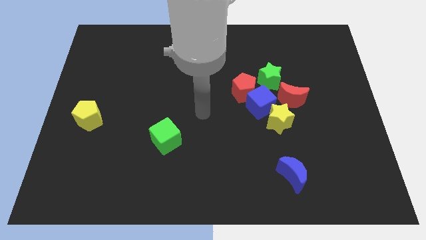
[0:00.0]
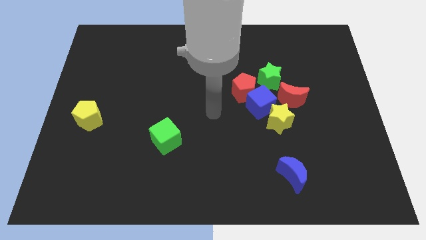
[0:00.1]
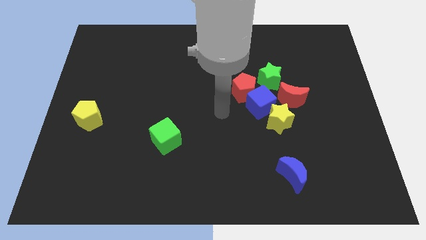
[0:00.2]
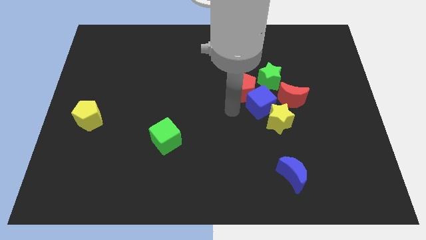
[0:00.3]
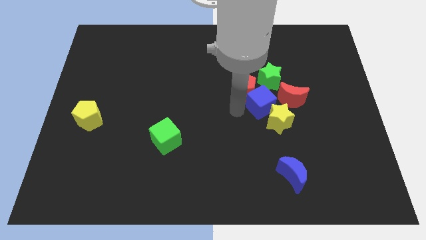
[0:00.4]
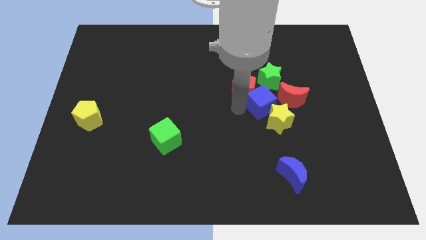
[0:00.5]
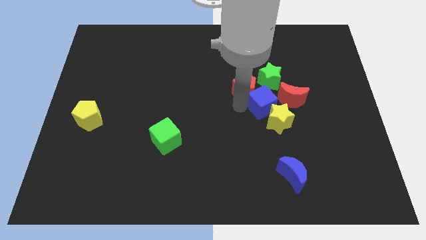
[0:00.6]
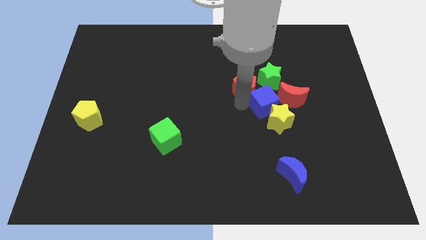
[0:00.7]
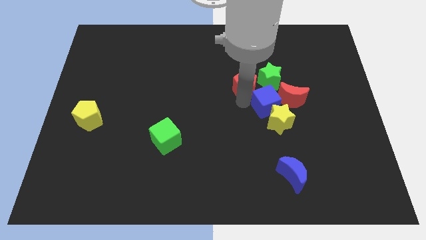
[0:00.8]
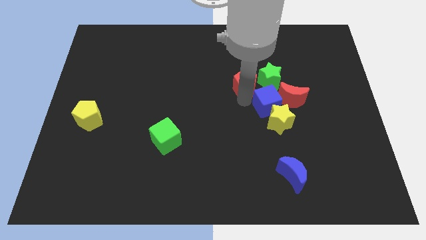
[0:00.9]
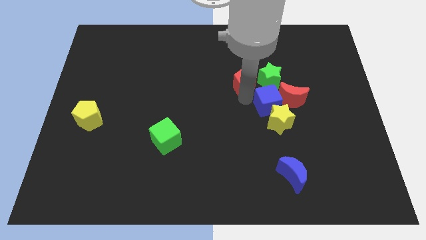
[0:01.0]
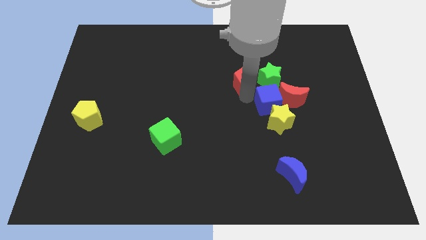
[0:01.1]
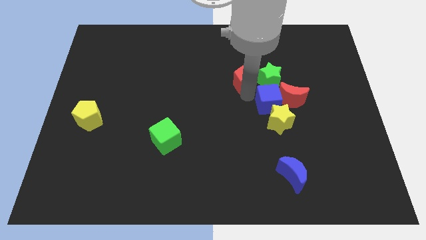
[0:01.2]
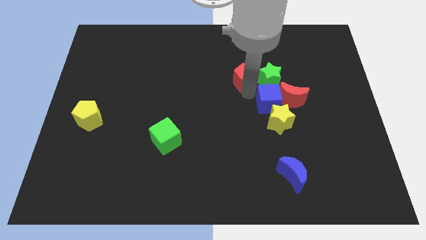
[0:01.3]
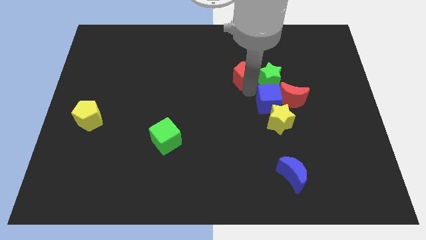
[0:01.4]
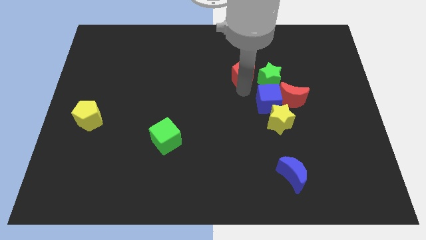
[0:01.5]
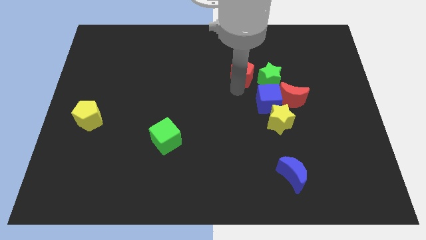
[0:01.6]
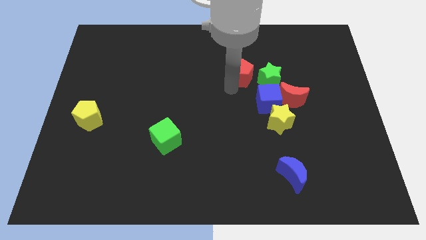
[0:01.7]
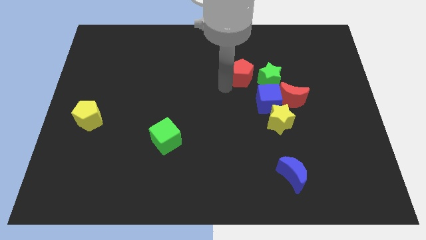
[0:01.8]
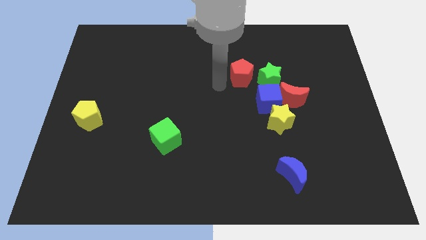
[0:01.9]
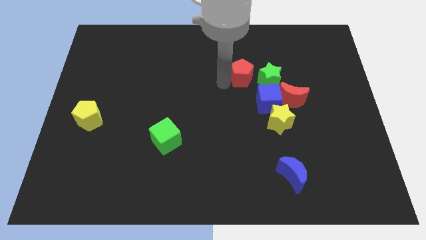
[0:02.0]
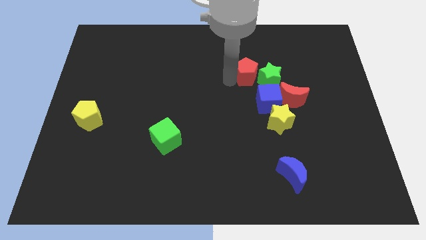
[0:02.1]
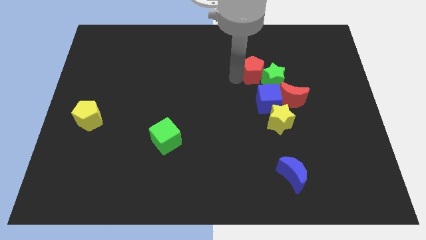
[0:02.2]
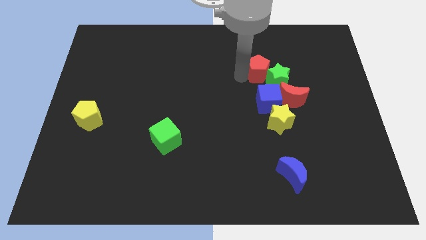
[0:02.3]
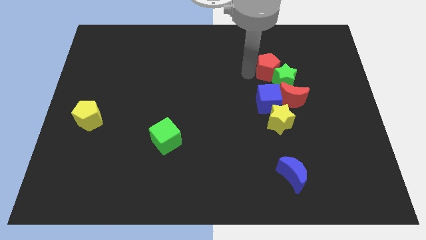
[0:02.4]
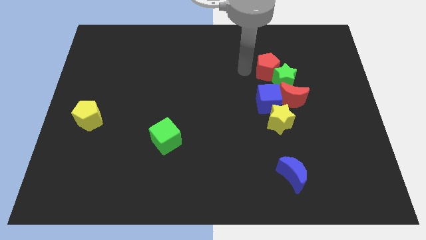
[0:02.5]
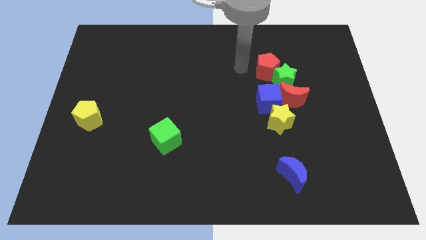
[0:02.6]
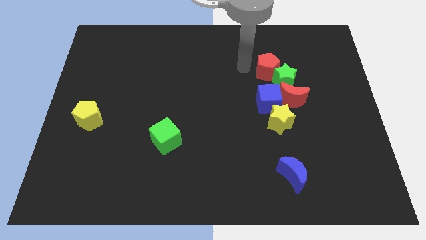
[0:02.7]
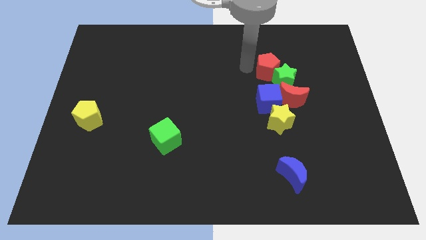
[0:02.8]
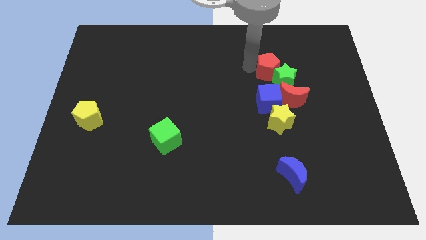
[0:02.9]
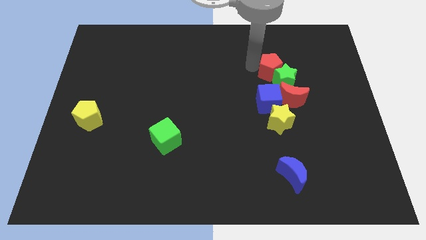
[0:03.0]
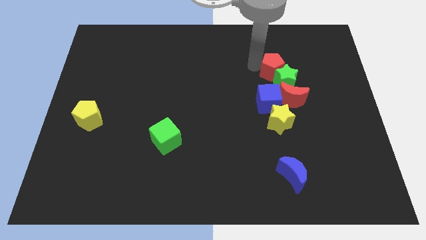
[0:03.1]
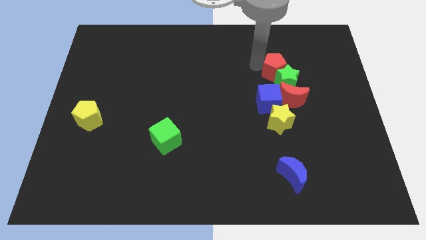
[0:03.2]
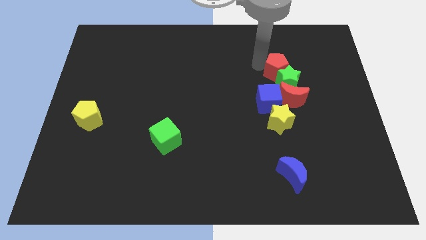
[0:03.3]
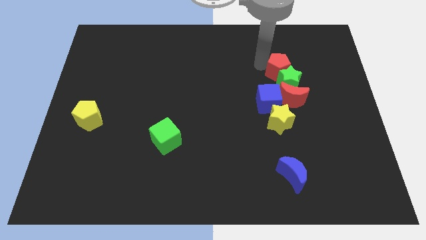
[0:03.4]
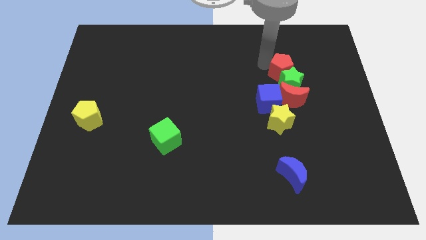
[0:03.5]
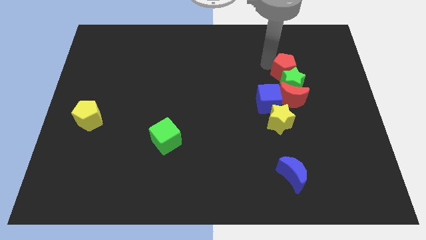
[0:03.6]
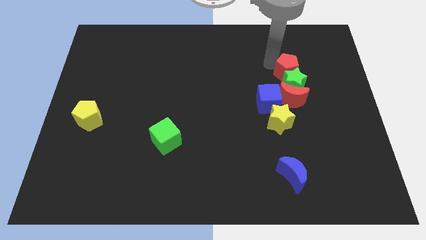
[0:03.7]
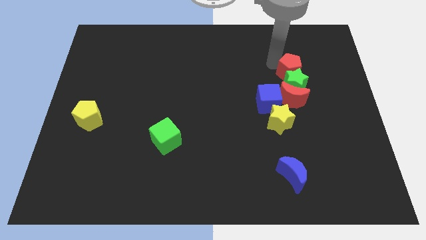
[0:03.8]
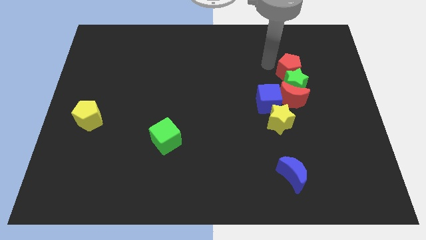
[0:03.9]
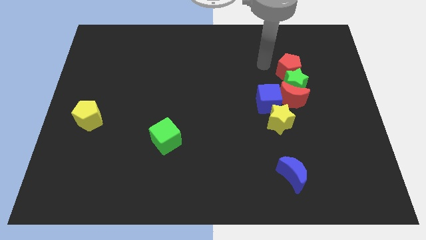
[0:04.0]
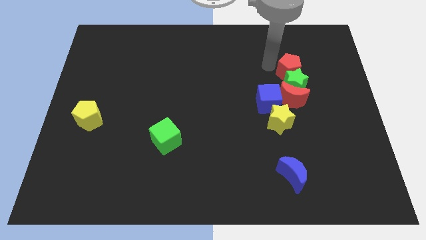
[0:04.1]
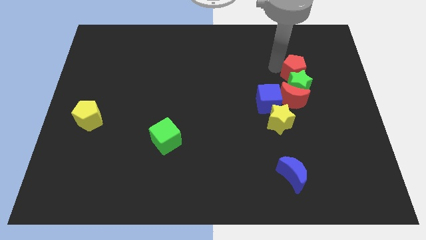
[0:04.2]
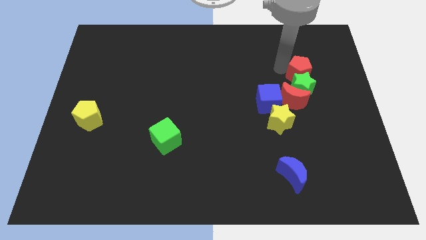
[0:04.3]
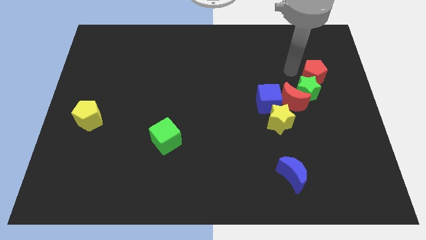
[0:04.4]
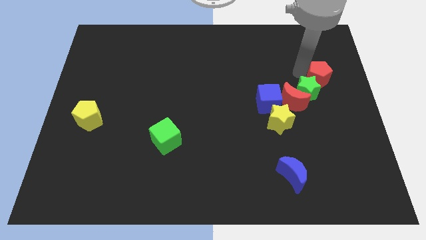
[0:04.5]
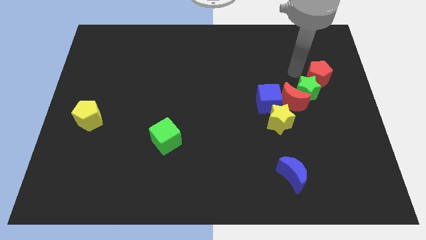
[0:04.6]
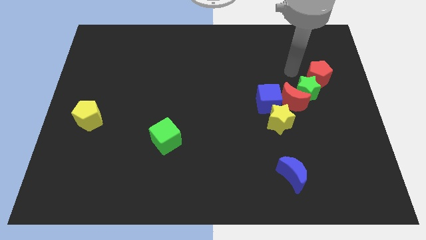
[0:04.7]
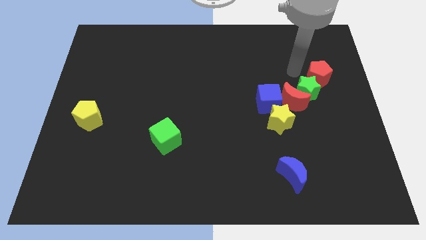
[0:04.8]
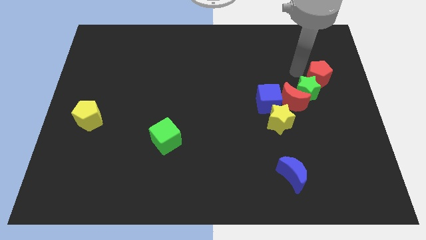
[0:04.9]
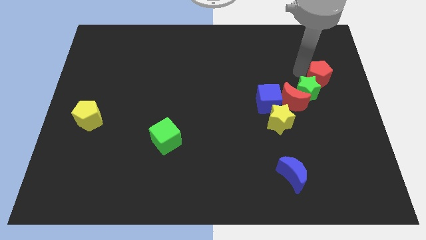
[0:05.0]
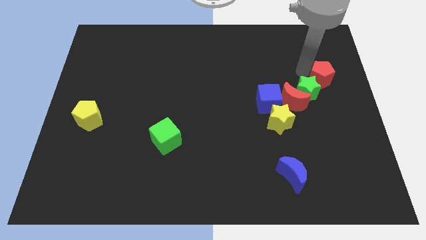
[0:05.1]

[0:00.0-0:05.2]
push the red pentagon to the right side of the board

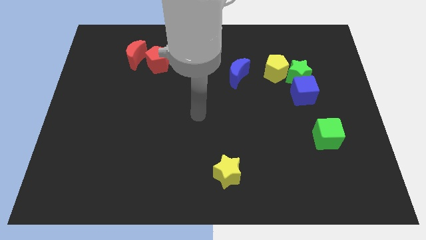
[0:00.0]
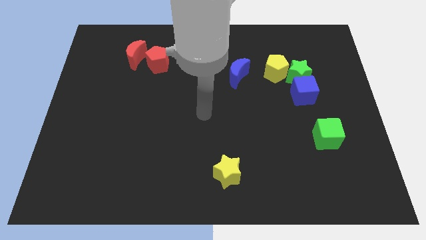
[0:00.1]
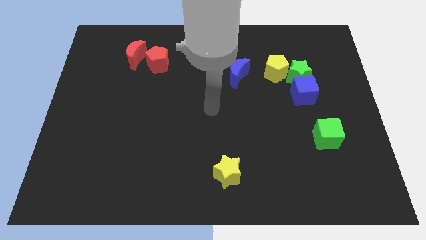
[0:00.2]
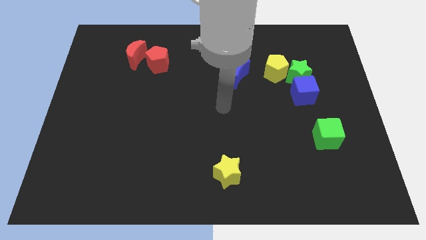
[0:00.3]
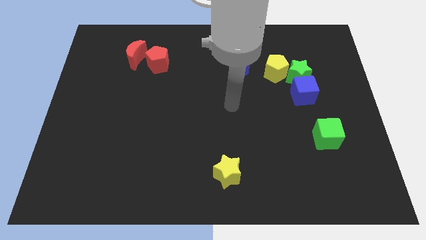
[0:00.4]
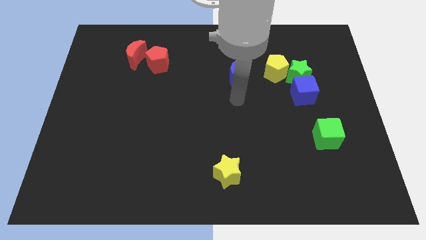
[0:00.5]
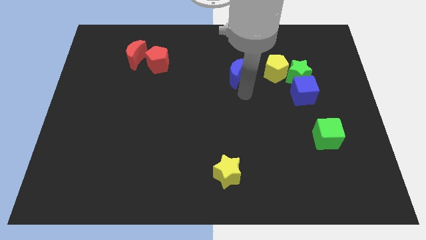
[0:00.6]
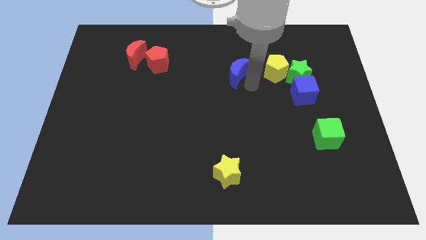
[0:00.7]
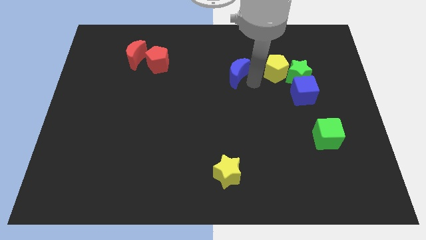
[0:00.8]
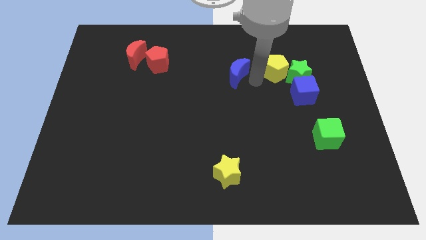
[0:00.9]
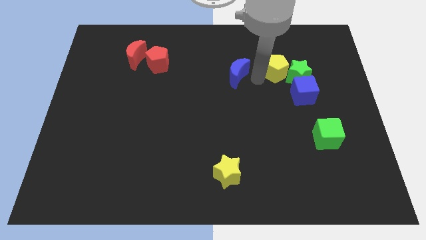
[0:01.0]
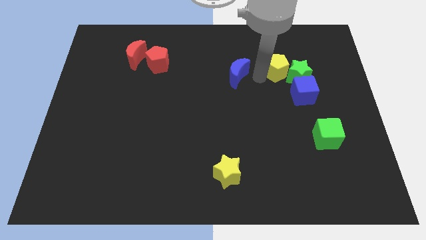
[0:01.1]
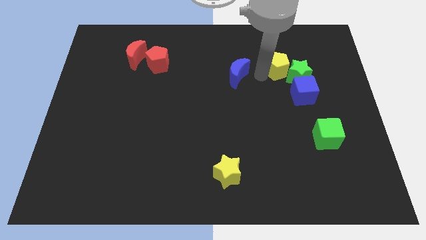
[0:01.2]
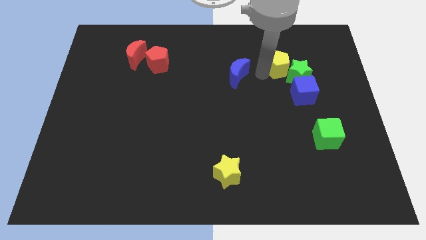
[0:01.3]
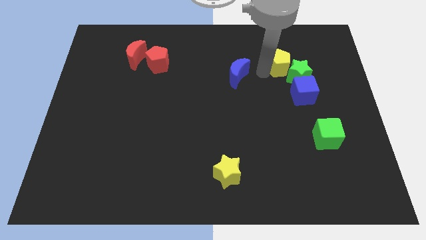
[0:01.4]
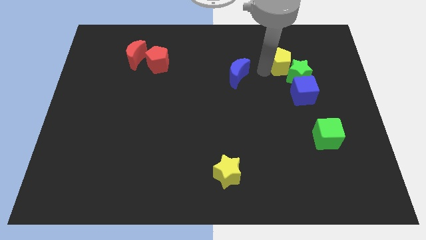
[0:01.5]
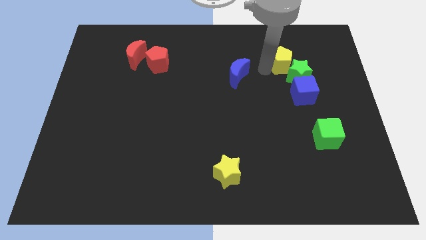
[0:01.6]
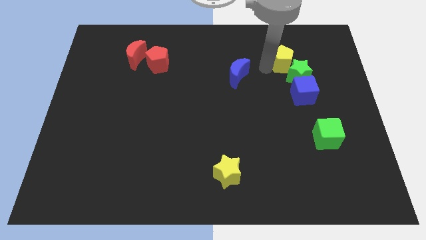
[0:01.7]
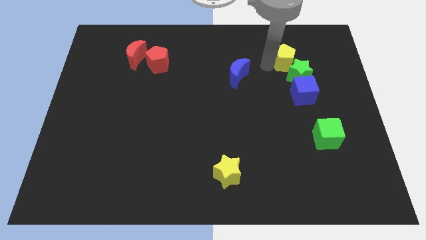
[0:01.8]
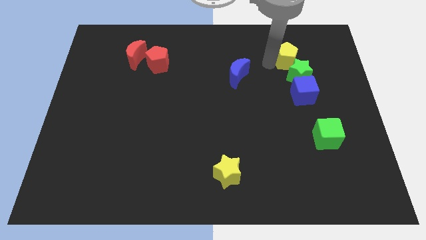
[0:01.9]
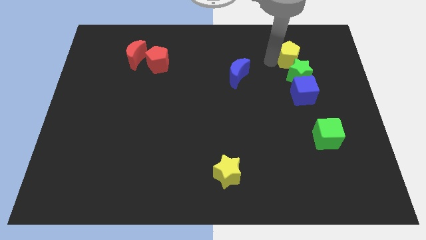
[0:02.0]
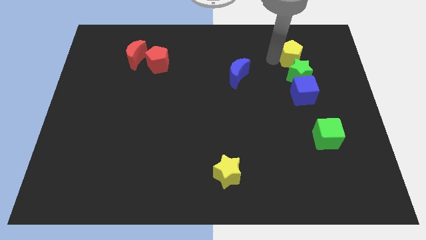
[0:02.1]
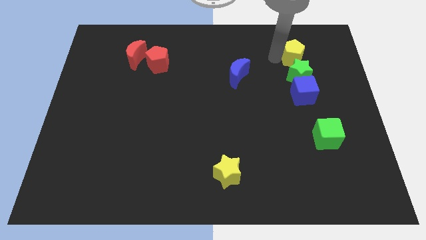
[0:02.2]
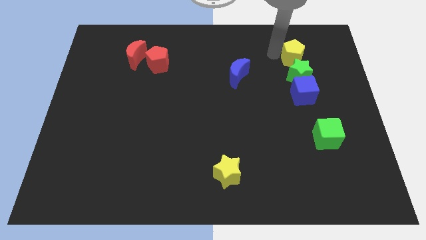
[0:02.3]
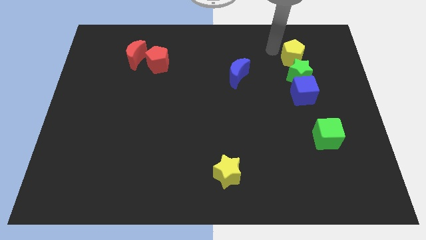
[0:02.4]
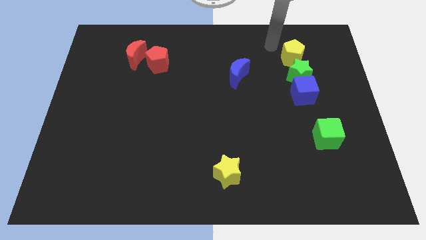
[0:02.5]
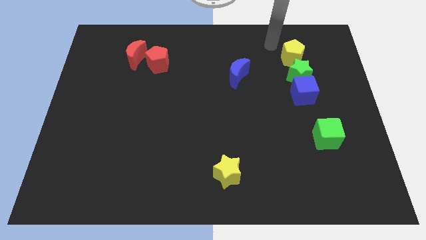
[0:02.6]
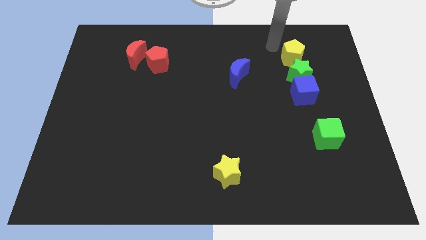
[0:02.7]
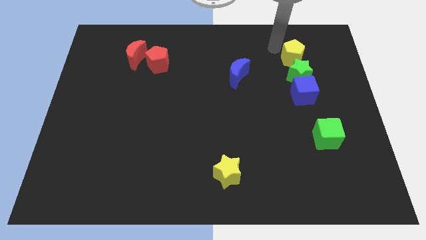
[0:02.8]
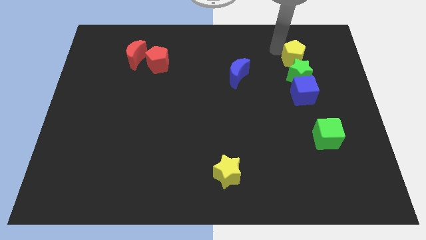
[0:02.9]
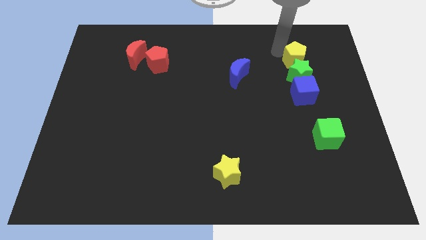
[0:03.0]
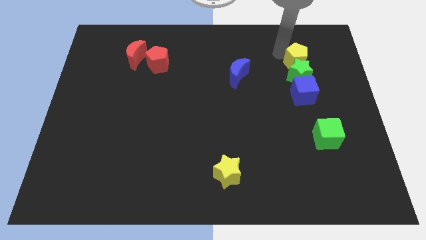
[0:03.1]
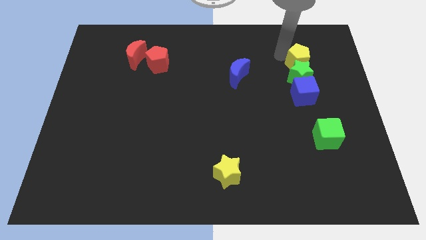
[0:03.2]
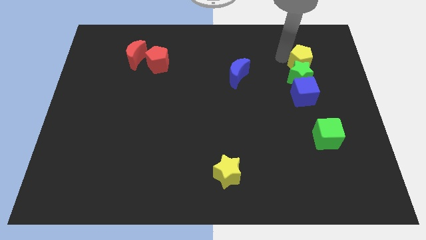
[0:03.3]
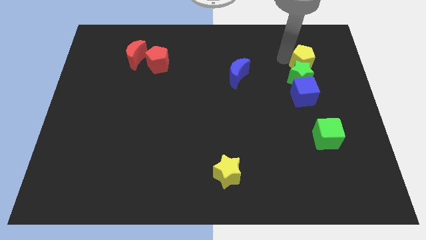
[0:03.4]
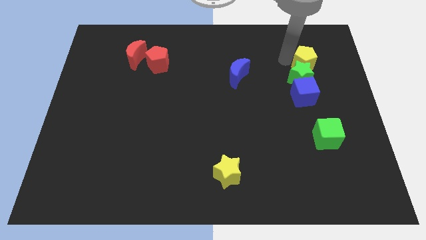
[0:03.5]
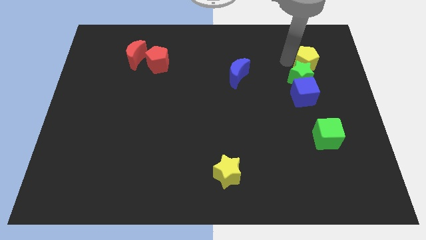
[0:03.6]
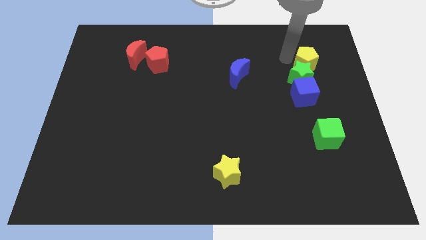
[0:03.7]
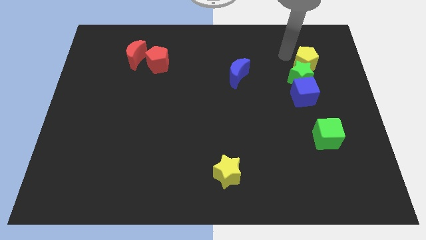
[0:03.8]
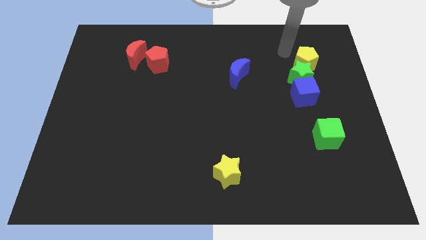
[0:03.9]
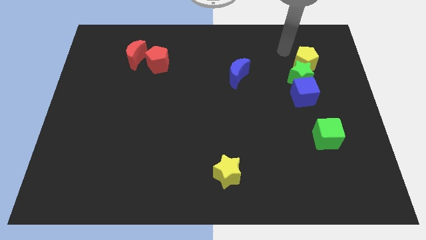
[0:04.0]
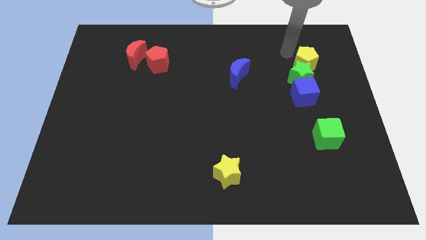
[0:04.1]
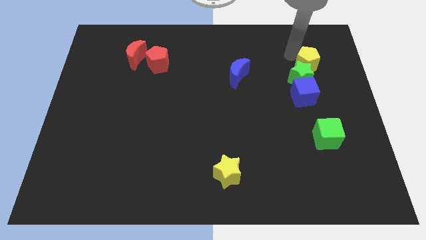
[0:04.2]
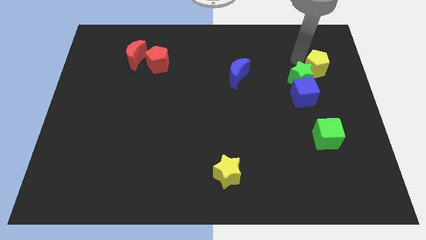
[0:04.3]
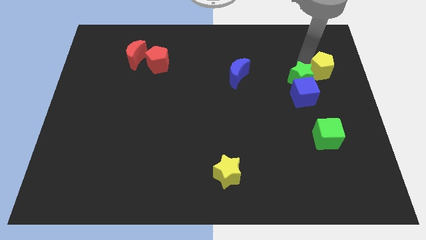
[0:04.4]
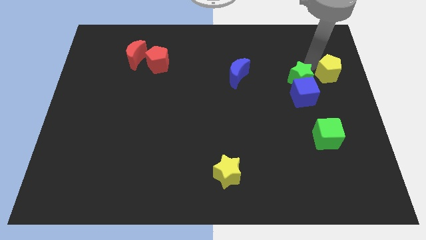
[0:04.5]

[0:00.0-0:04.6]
move the yellow pentagon to the right side
